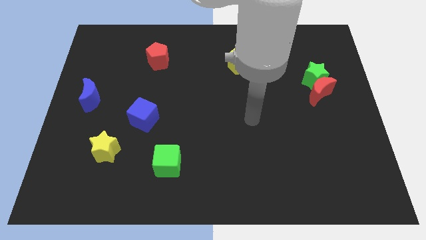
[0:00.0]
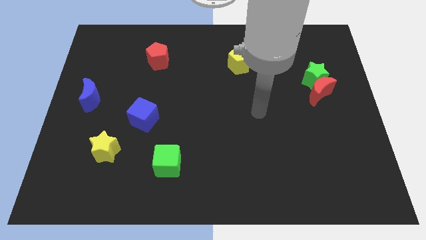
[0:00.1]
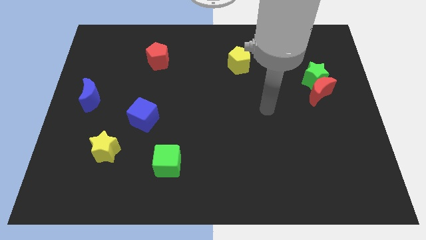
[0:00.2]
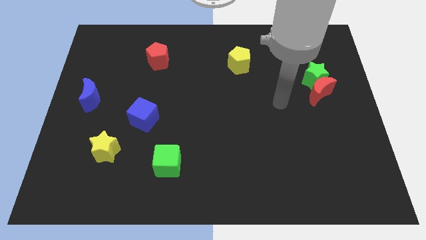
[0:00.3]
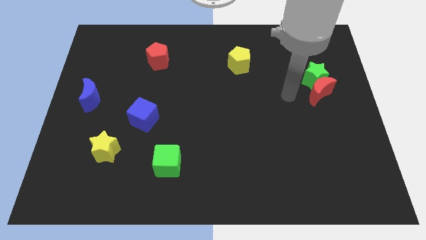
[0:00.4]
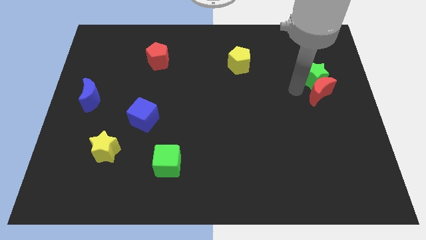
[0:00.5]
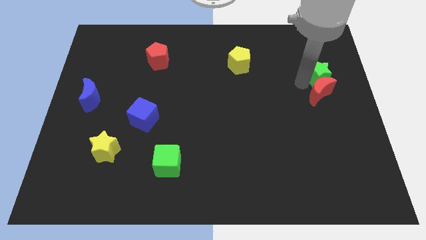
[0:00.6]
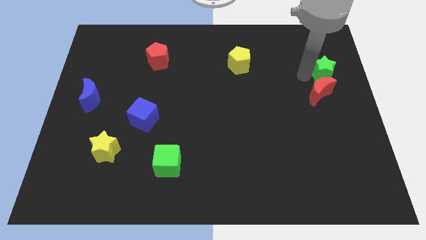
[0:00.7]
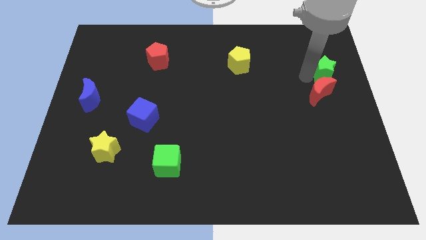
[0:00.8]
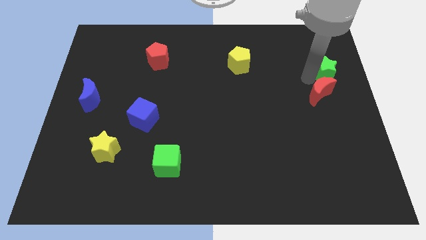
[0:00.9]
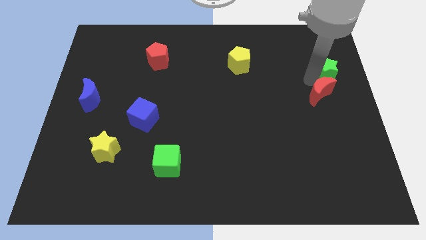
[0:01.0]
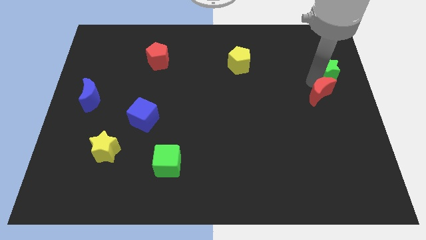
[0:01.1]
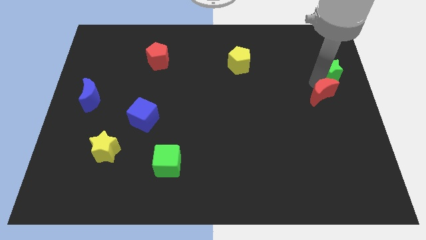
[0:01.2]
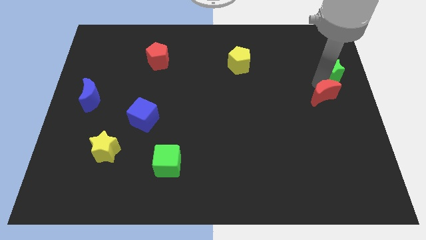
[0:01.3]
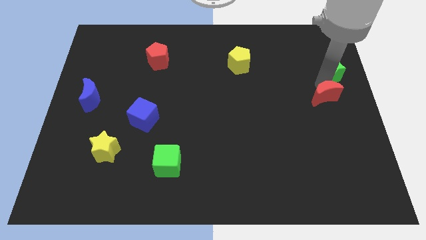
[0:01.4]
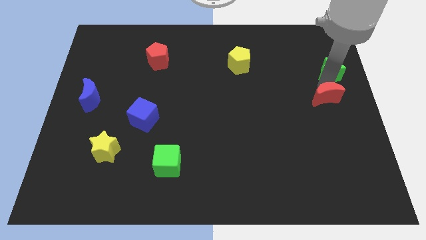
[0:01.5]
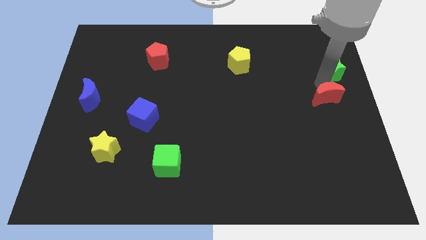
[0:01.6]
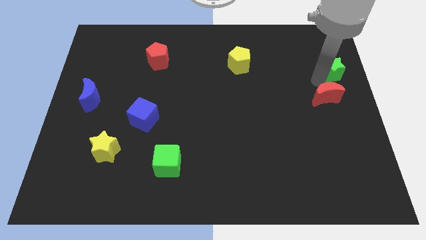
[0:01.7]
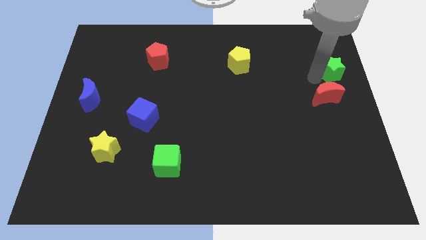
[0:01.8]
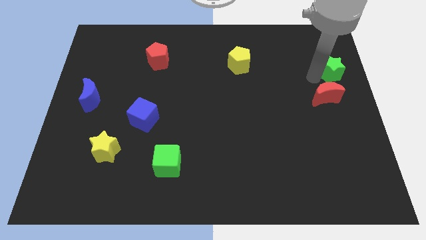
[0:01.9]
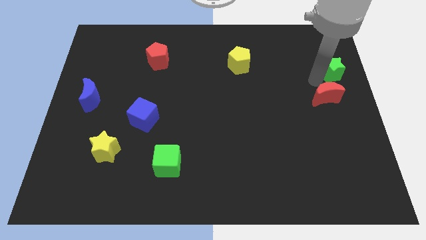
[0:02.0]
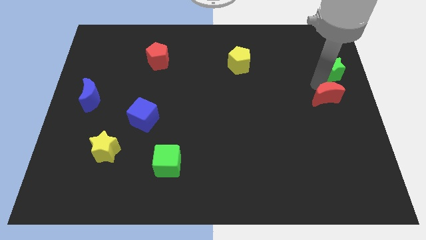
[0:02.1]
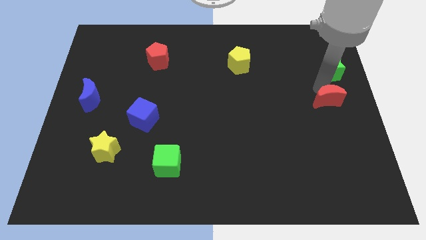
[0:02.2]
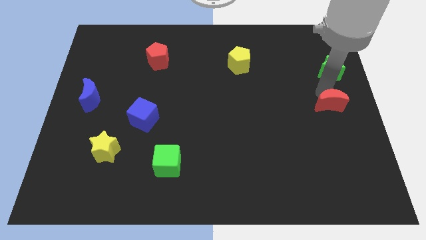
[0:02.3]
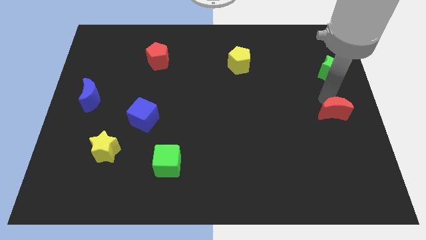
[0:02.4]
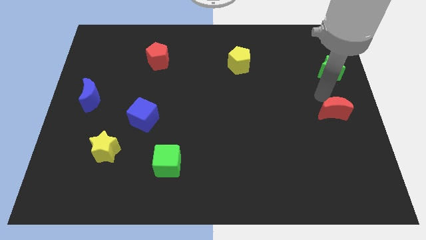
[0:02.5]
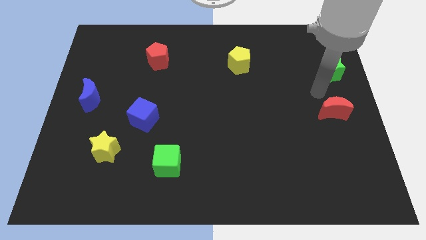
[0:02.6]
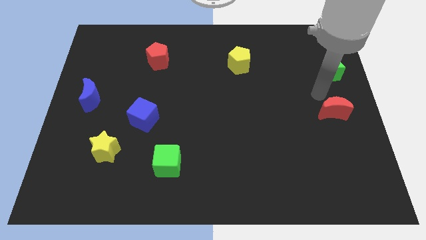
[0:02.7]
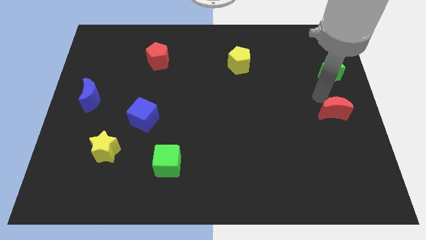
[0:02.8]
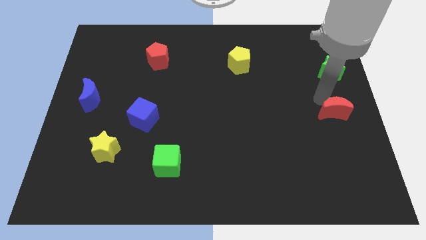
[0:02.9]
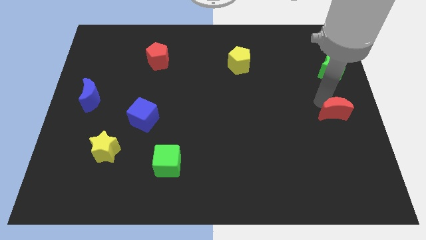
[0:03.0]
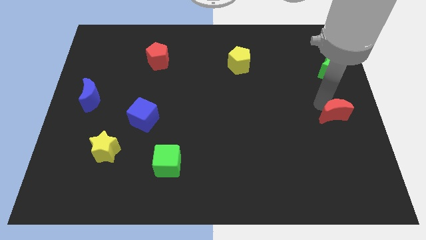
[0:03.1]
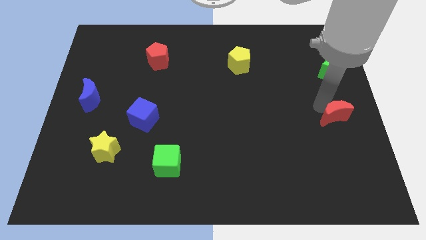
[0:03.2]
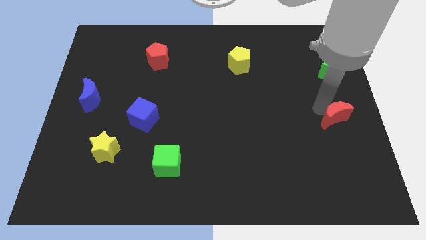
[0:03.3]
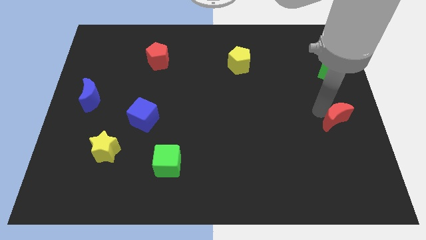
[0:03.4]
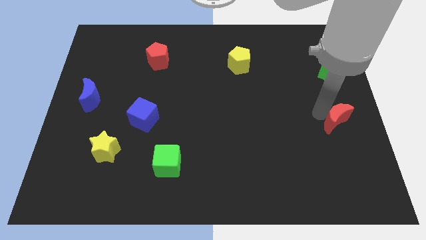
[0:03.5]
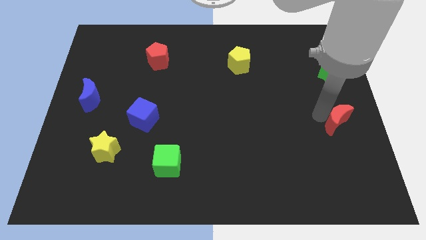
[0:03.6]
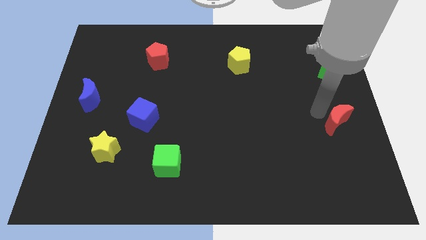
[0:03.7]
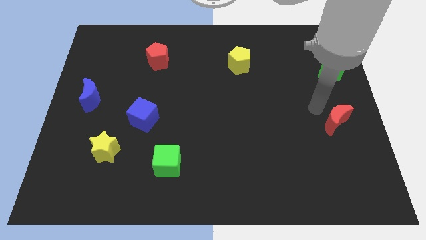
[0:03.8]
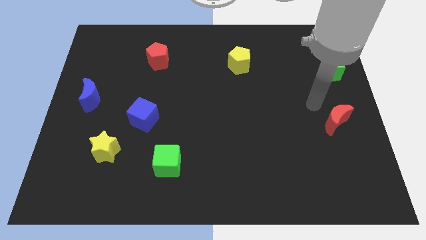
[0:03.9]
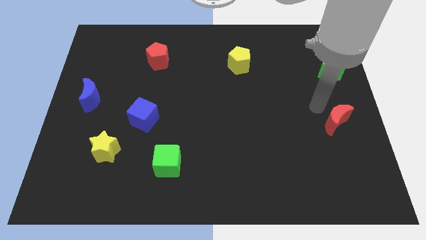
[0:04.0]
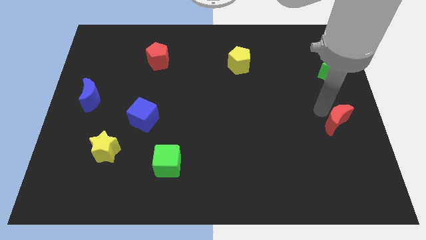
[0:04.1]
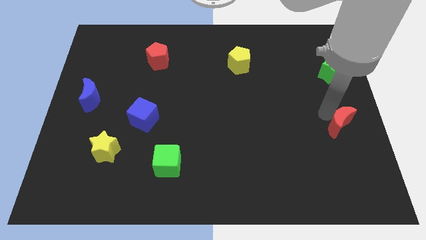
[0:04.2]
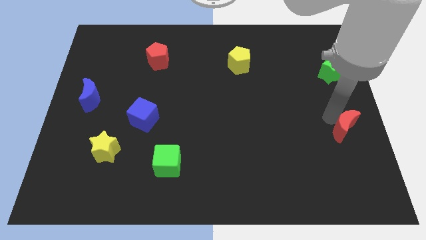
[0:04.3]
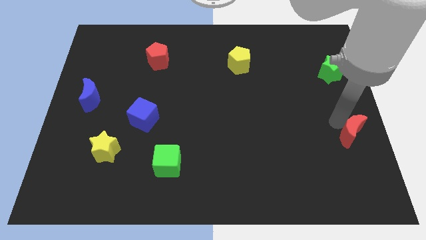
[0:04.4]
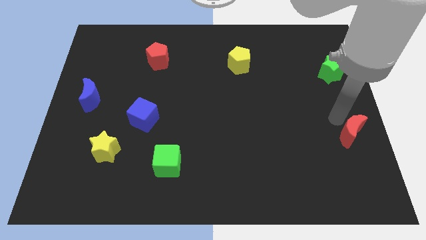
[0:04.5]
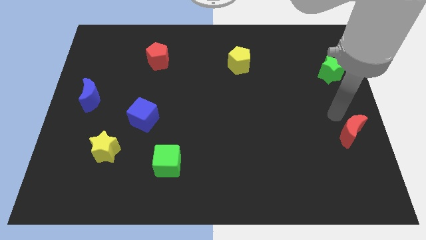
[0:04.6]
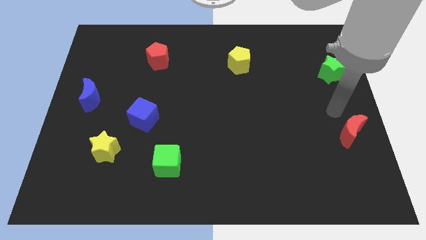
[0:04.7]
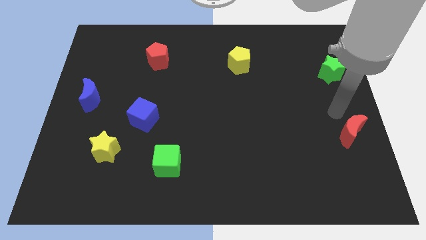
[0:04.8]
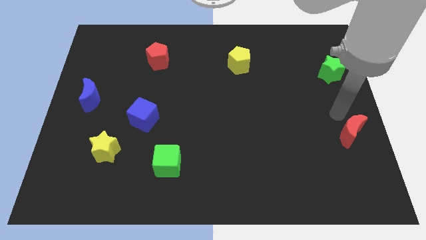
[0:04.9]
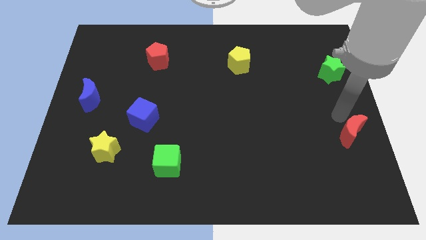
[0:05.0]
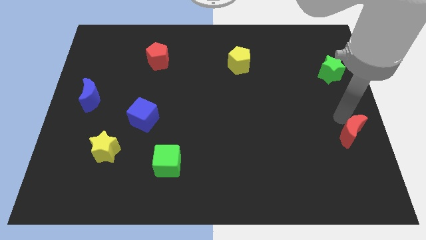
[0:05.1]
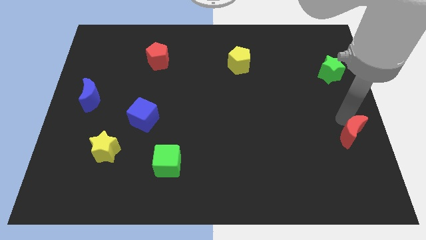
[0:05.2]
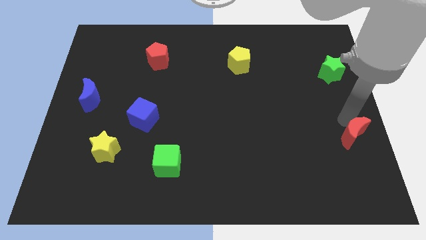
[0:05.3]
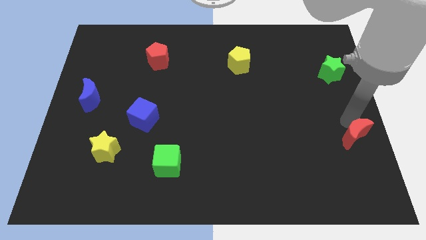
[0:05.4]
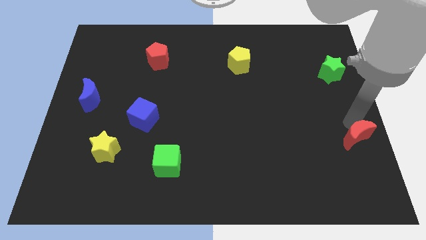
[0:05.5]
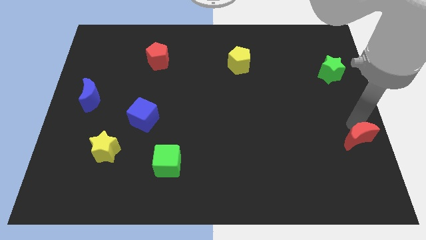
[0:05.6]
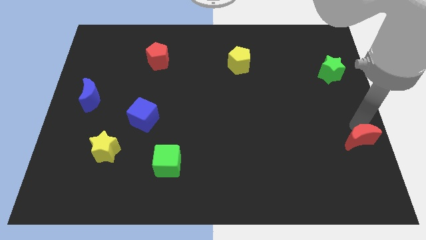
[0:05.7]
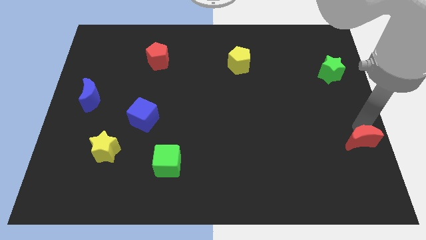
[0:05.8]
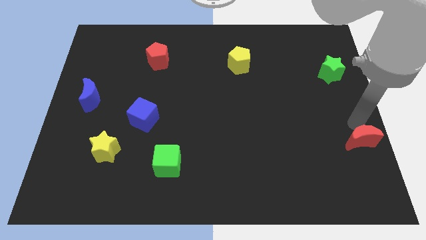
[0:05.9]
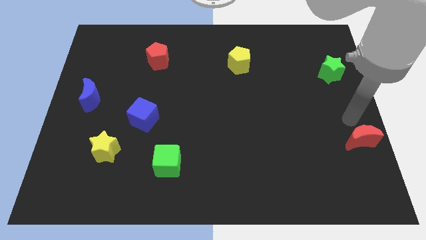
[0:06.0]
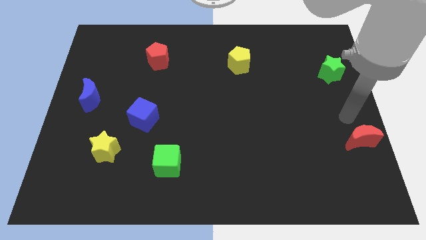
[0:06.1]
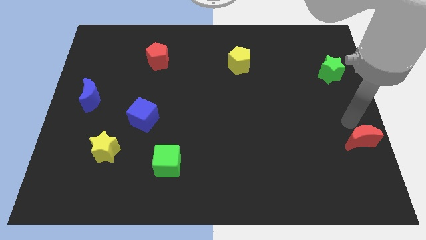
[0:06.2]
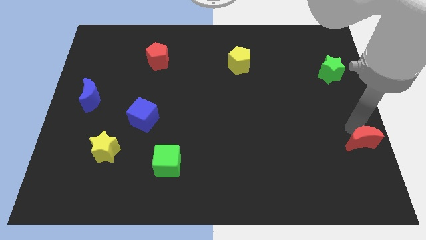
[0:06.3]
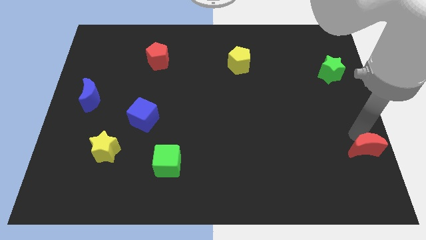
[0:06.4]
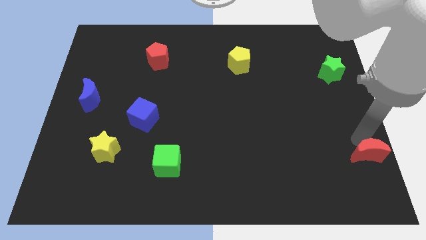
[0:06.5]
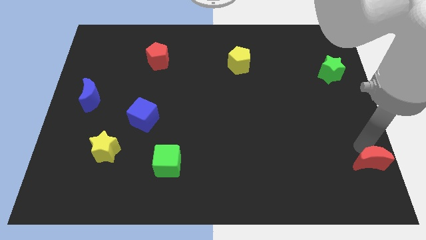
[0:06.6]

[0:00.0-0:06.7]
put the red moon to the lower right corner
